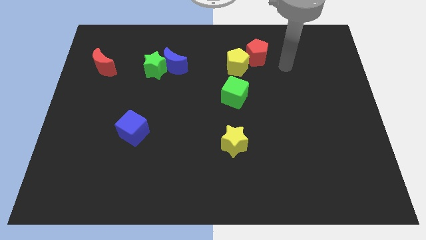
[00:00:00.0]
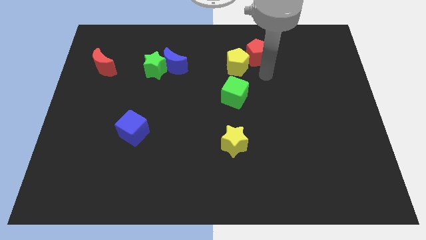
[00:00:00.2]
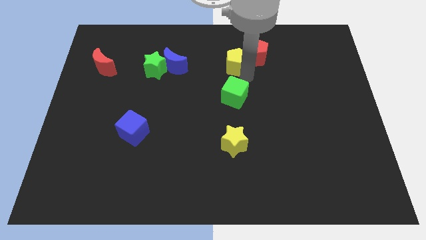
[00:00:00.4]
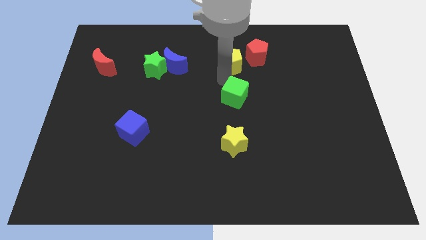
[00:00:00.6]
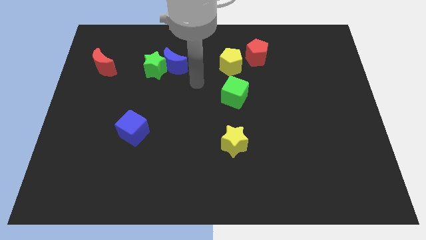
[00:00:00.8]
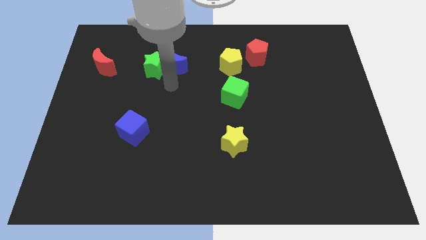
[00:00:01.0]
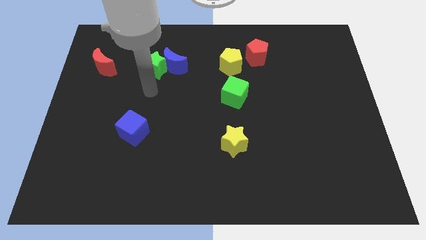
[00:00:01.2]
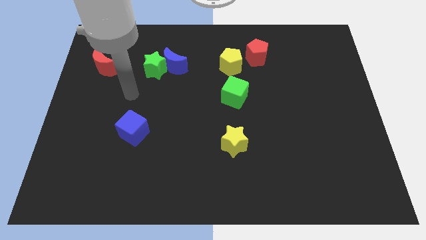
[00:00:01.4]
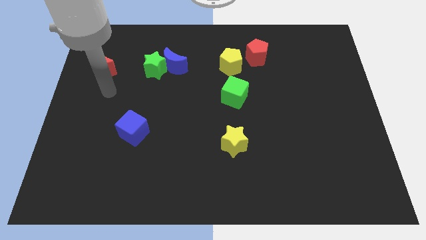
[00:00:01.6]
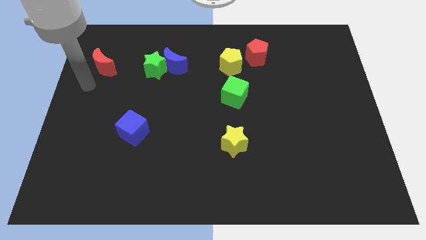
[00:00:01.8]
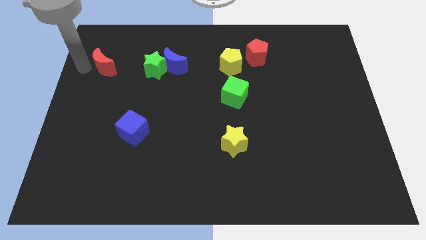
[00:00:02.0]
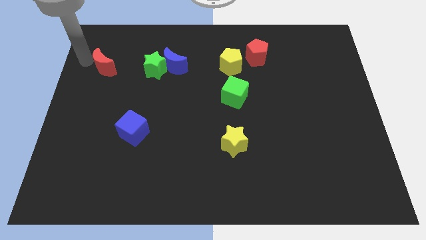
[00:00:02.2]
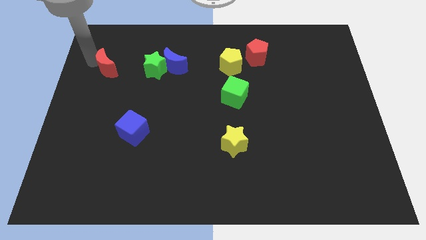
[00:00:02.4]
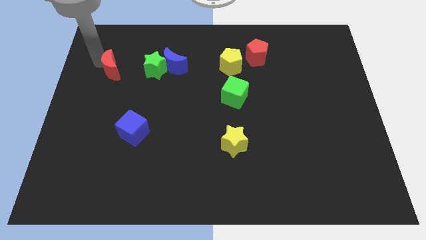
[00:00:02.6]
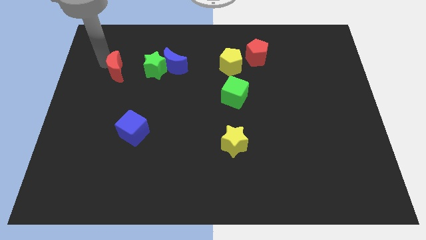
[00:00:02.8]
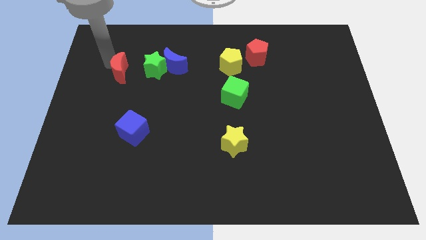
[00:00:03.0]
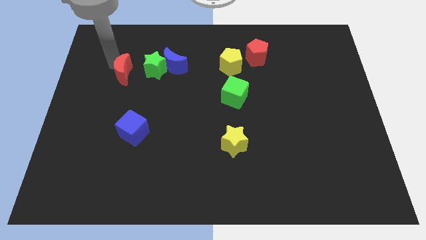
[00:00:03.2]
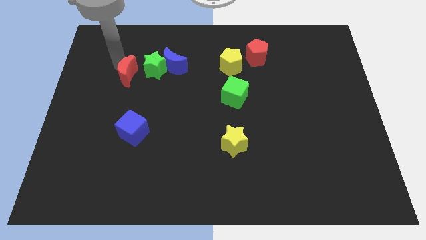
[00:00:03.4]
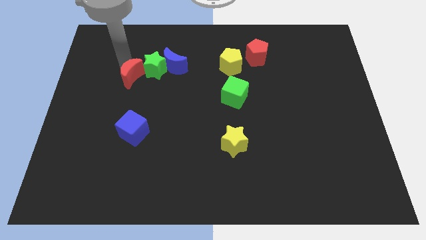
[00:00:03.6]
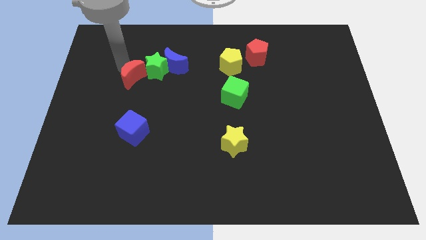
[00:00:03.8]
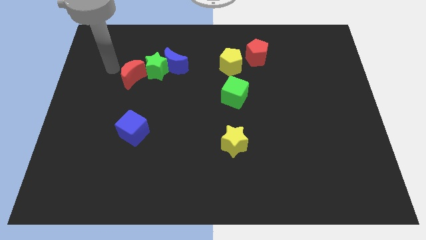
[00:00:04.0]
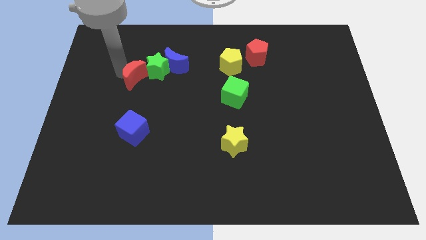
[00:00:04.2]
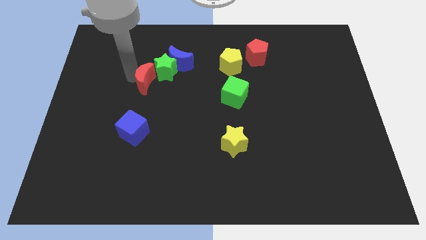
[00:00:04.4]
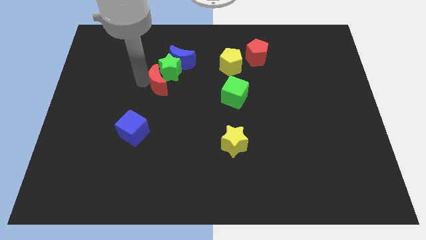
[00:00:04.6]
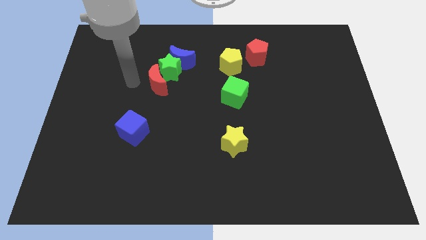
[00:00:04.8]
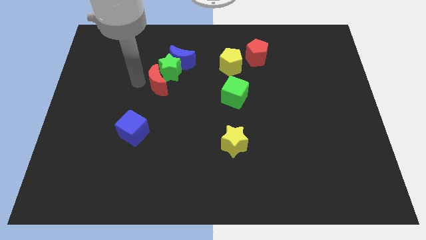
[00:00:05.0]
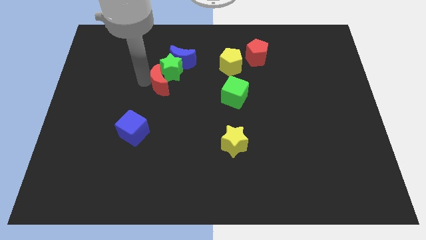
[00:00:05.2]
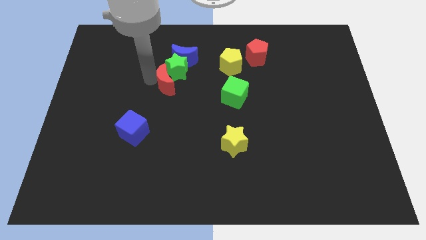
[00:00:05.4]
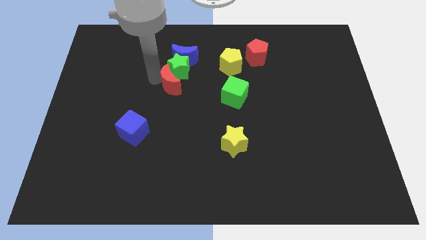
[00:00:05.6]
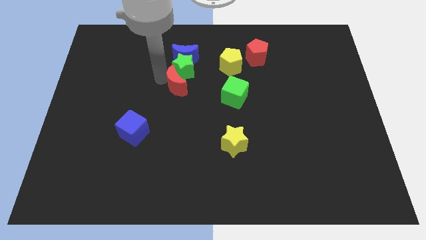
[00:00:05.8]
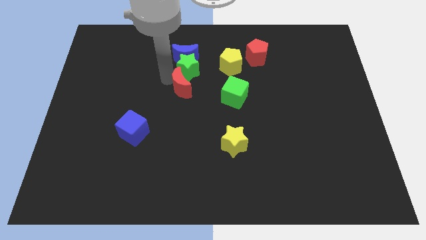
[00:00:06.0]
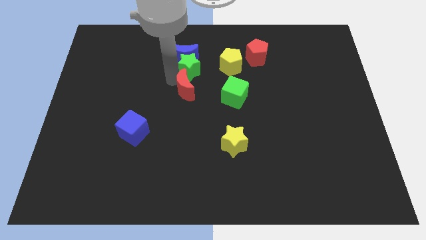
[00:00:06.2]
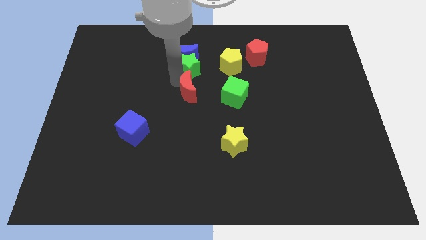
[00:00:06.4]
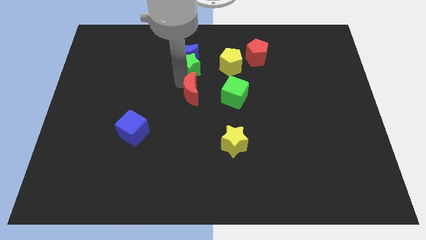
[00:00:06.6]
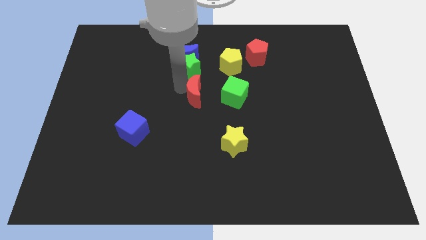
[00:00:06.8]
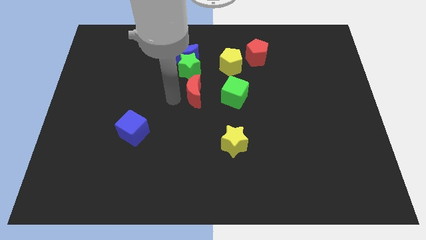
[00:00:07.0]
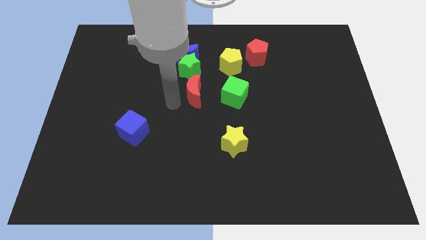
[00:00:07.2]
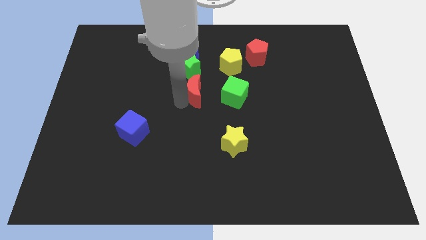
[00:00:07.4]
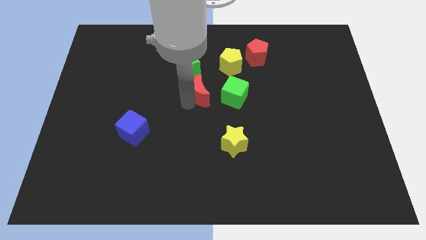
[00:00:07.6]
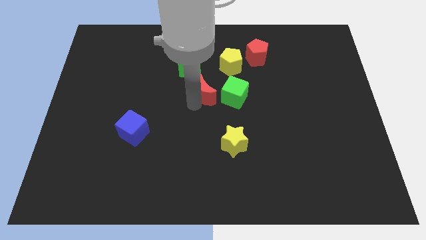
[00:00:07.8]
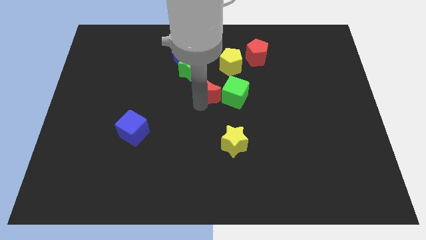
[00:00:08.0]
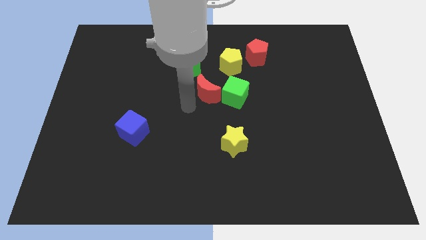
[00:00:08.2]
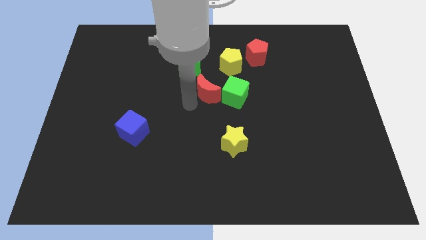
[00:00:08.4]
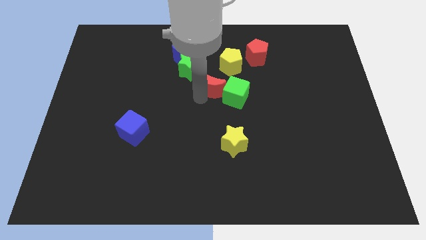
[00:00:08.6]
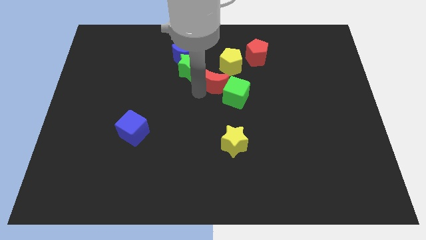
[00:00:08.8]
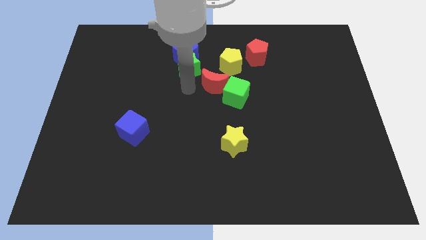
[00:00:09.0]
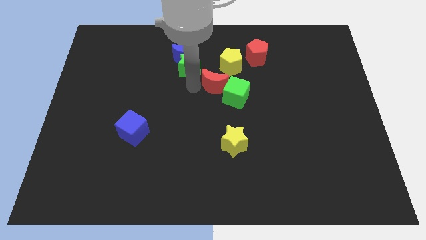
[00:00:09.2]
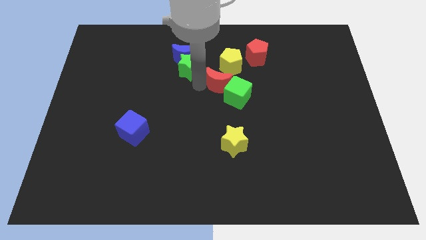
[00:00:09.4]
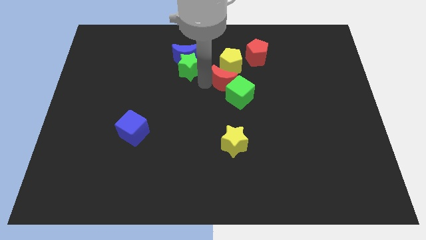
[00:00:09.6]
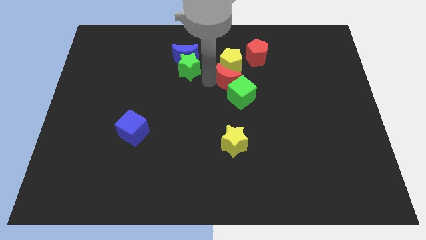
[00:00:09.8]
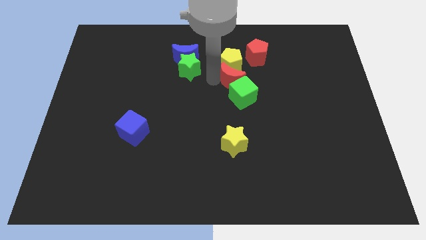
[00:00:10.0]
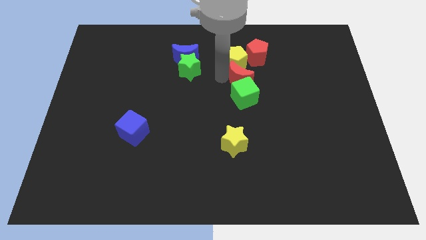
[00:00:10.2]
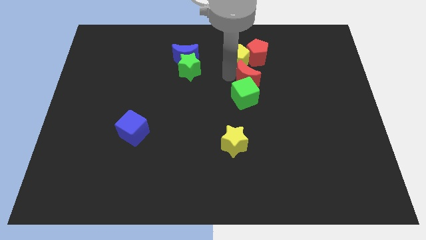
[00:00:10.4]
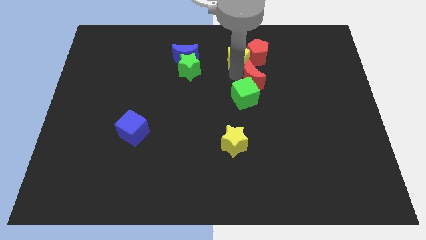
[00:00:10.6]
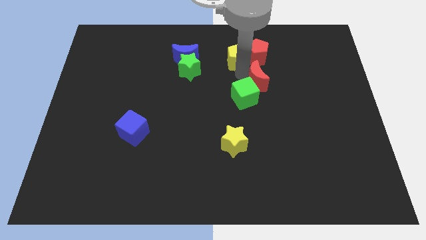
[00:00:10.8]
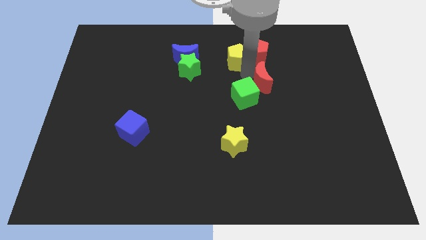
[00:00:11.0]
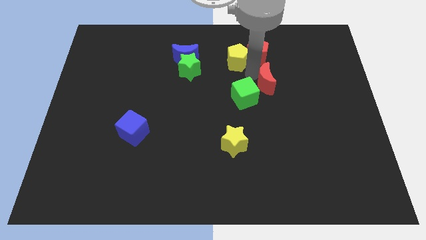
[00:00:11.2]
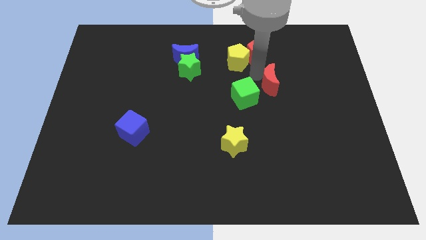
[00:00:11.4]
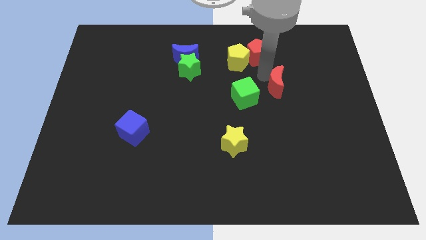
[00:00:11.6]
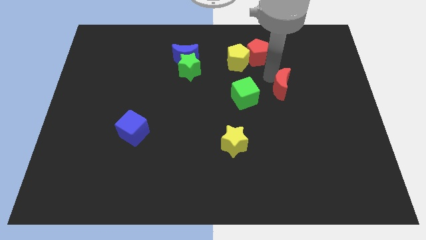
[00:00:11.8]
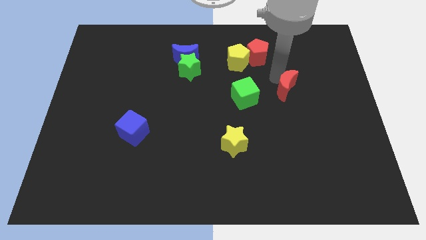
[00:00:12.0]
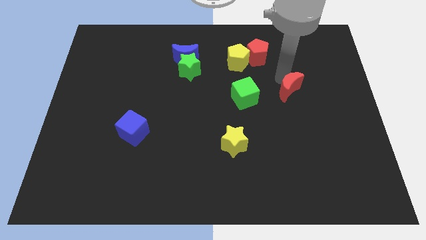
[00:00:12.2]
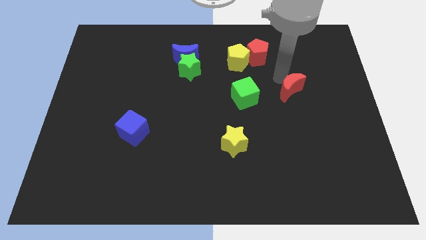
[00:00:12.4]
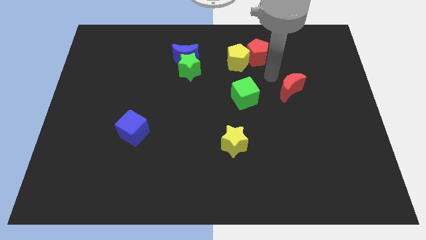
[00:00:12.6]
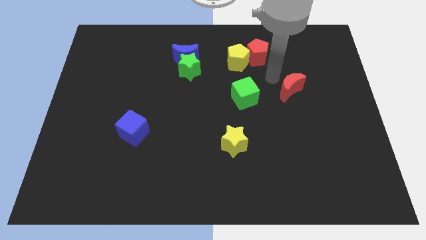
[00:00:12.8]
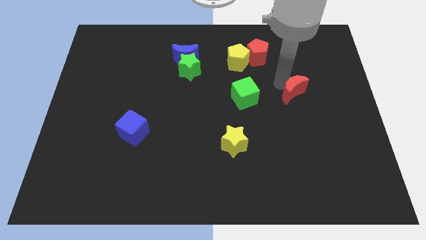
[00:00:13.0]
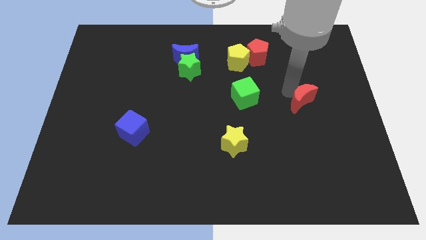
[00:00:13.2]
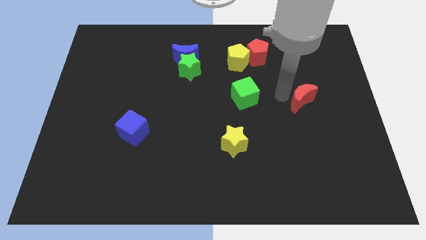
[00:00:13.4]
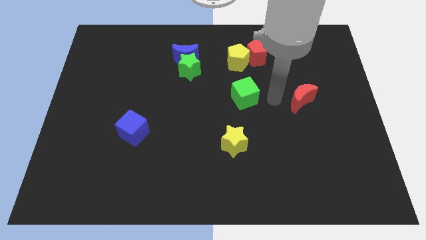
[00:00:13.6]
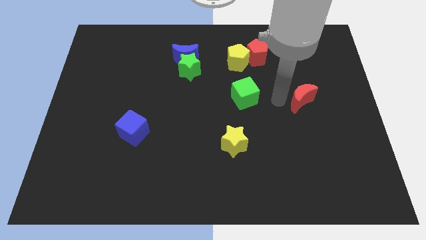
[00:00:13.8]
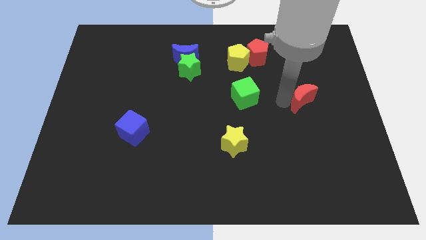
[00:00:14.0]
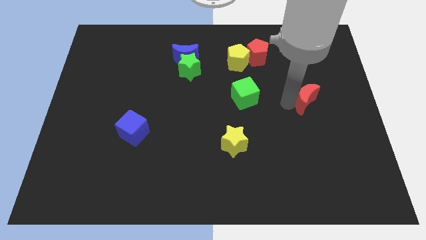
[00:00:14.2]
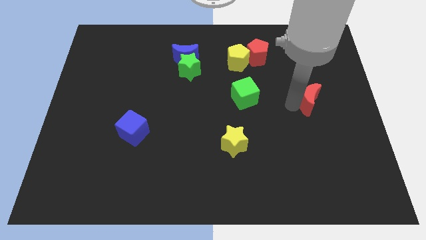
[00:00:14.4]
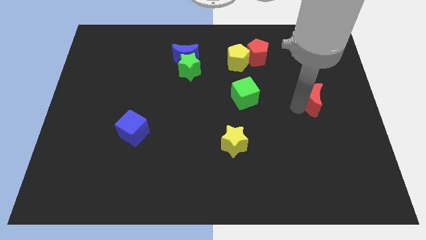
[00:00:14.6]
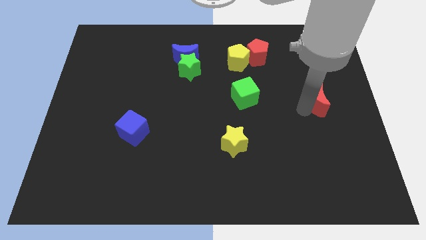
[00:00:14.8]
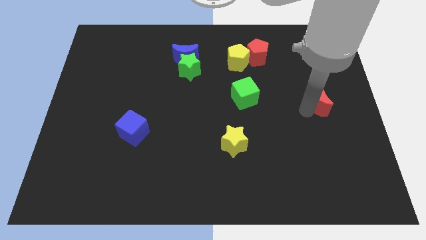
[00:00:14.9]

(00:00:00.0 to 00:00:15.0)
push the red moon to the right side
